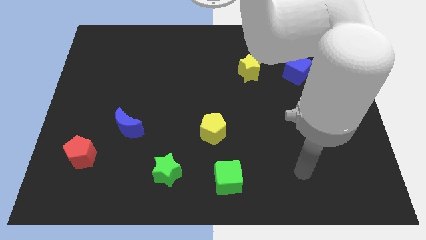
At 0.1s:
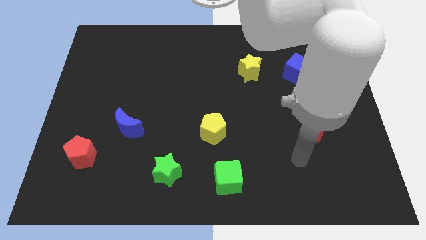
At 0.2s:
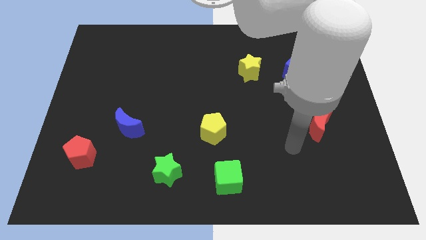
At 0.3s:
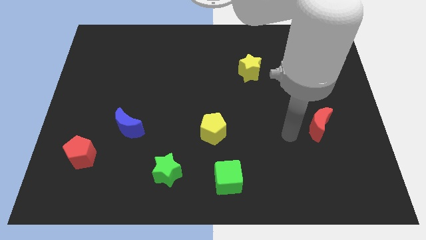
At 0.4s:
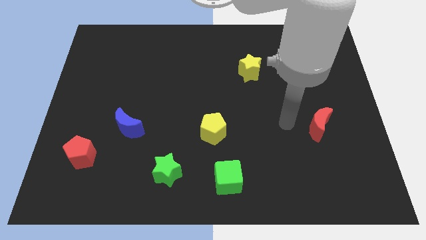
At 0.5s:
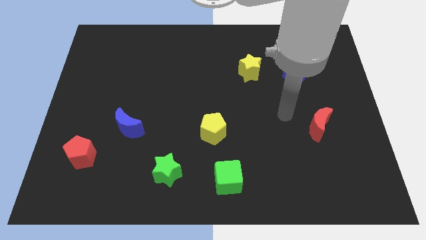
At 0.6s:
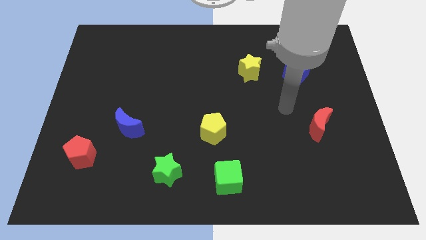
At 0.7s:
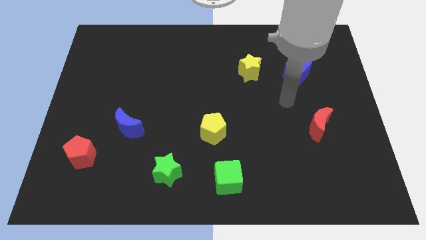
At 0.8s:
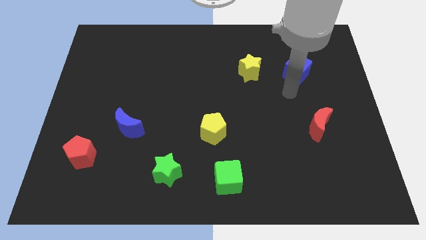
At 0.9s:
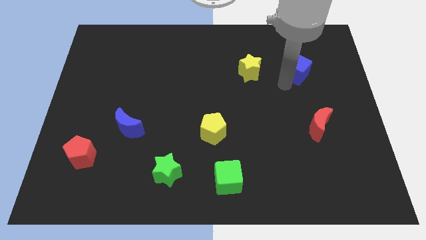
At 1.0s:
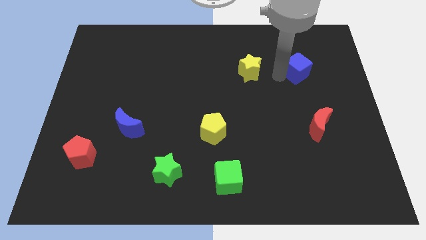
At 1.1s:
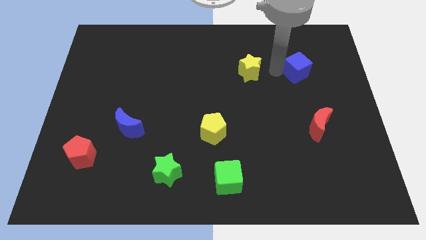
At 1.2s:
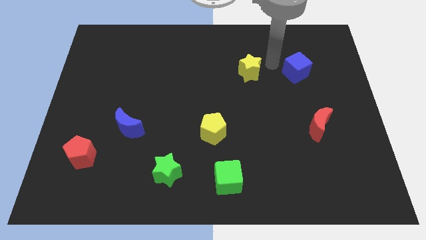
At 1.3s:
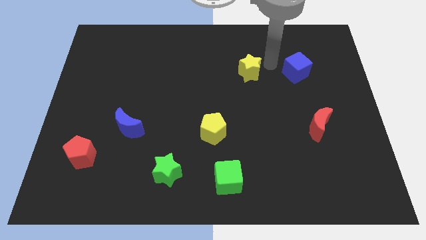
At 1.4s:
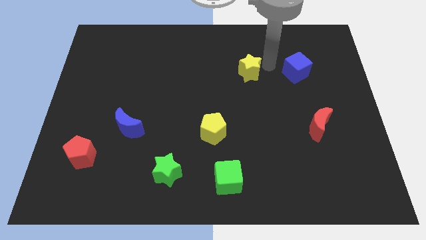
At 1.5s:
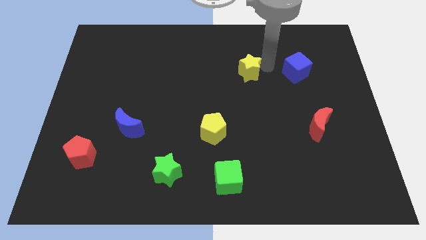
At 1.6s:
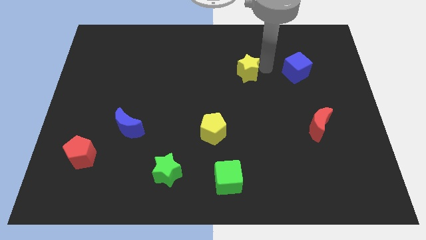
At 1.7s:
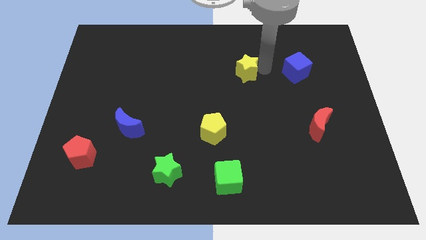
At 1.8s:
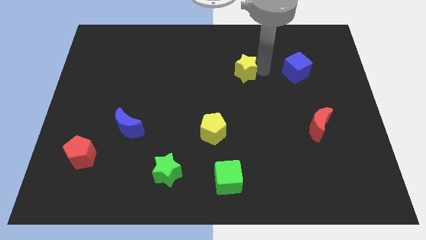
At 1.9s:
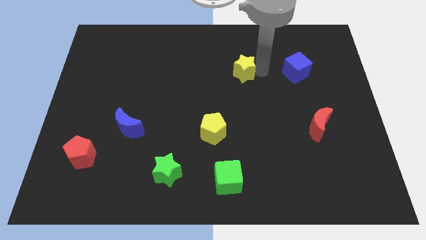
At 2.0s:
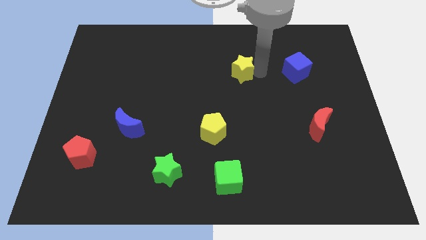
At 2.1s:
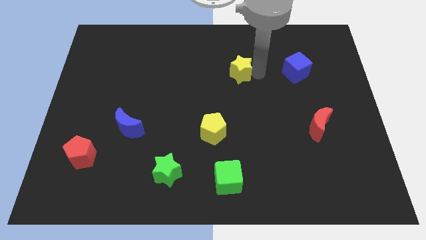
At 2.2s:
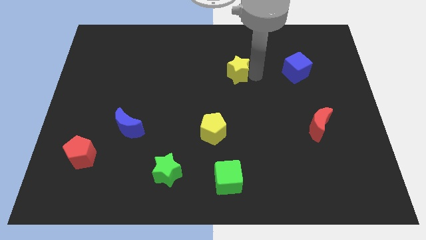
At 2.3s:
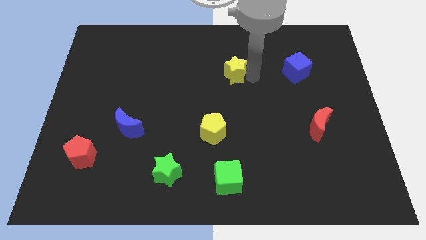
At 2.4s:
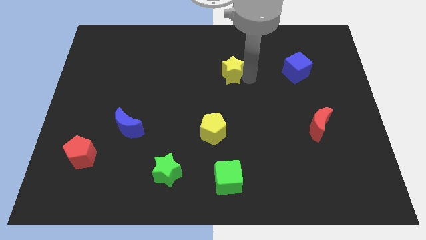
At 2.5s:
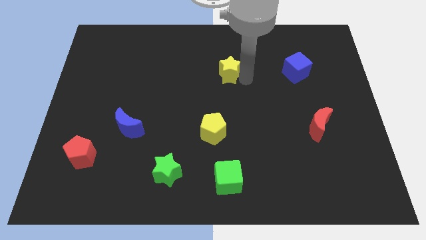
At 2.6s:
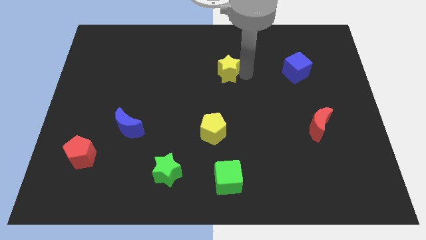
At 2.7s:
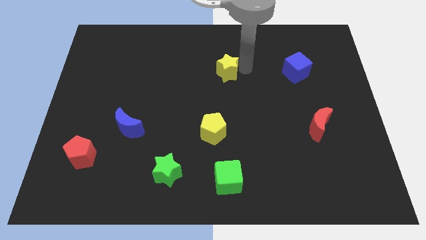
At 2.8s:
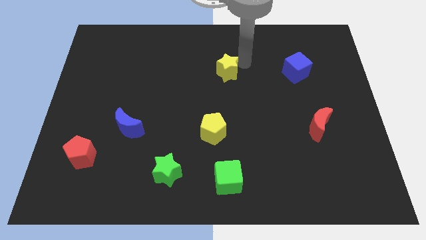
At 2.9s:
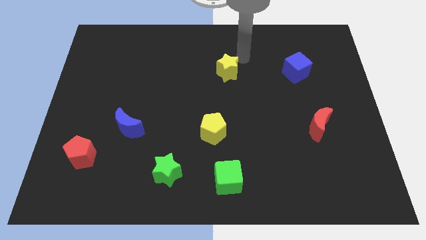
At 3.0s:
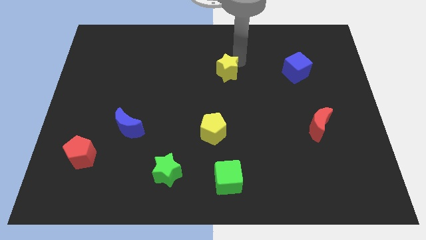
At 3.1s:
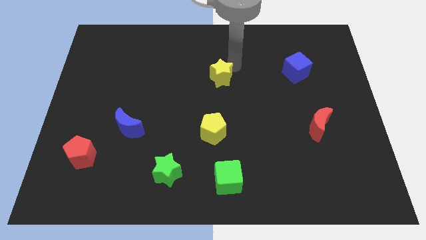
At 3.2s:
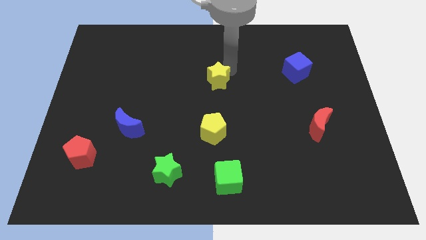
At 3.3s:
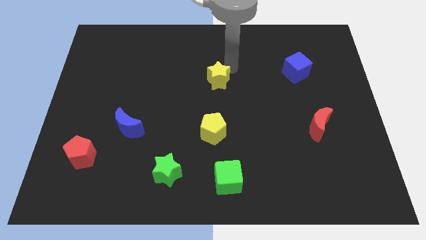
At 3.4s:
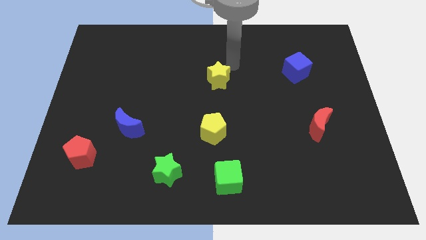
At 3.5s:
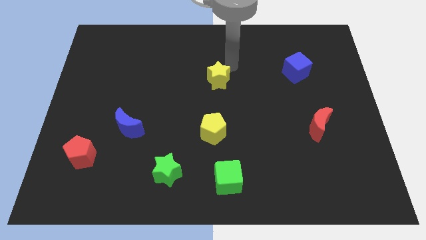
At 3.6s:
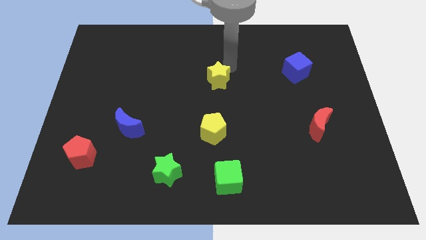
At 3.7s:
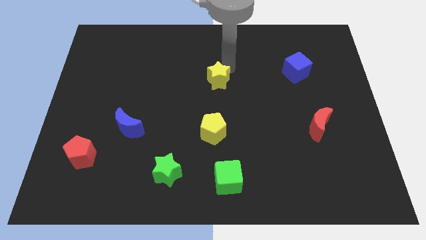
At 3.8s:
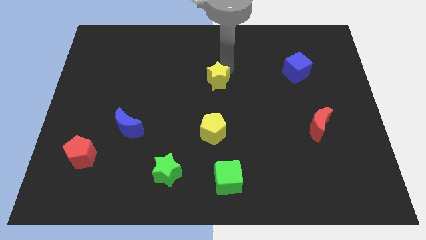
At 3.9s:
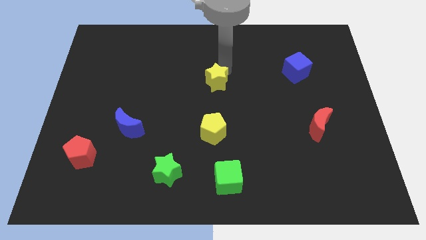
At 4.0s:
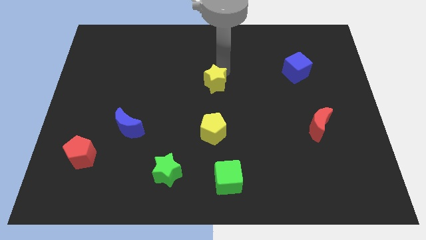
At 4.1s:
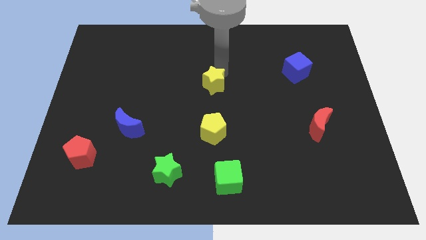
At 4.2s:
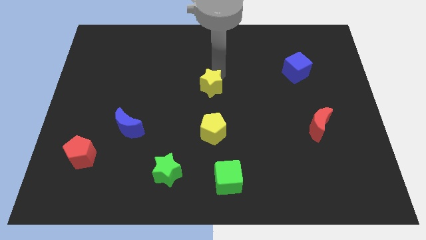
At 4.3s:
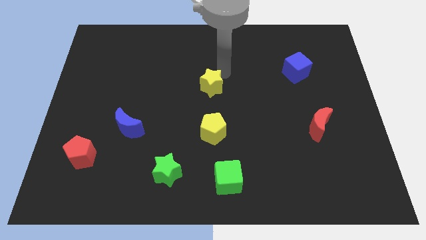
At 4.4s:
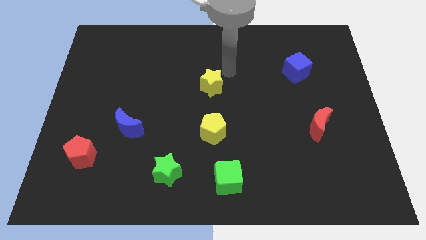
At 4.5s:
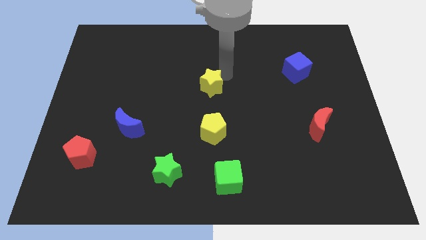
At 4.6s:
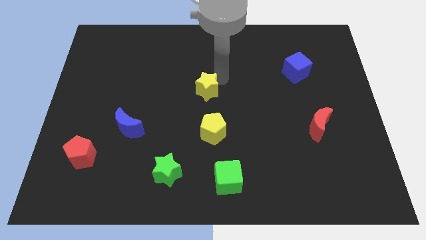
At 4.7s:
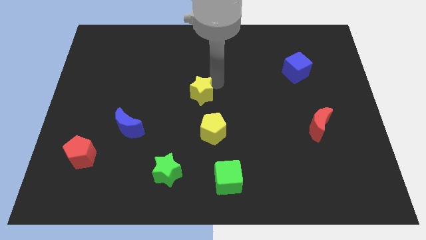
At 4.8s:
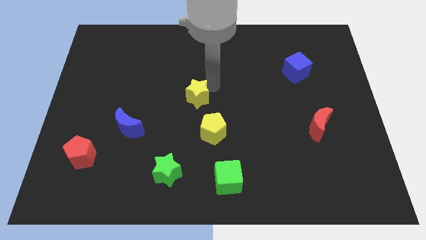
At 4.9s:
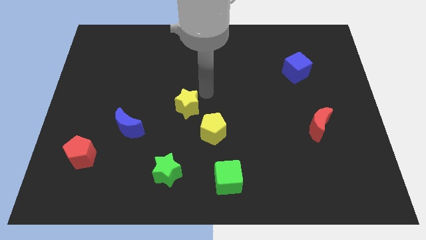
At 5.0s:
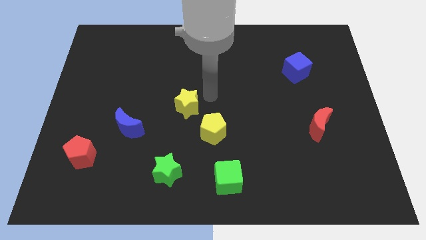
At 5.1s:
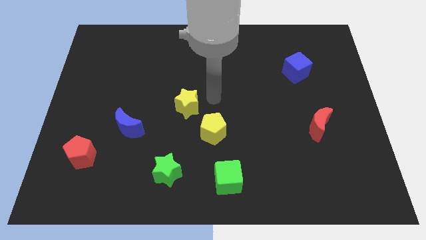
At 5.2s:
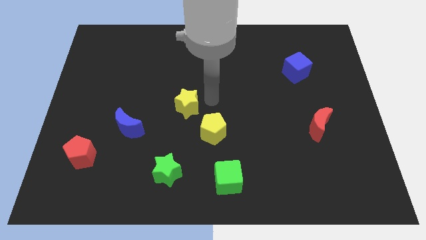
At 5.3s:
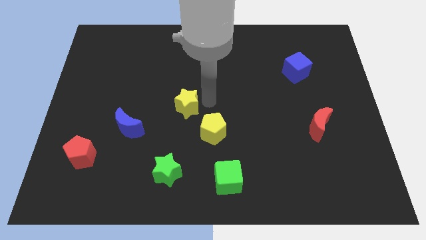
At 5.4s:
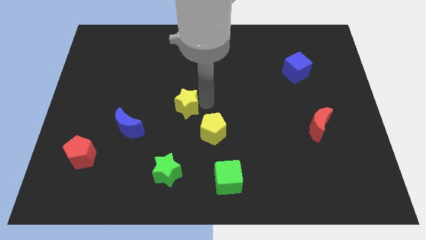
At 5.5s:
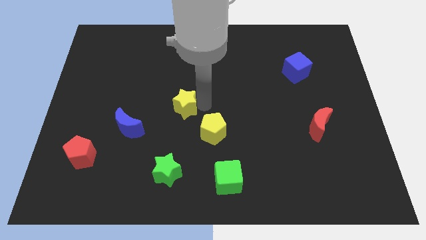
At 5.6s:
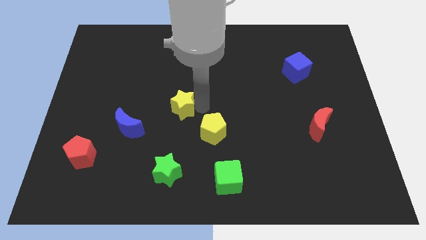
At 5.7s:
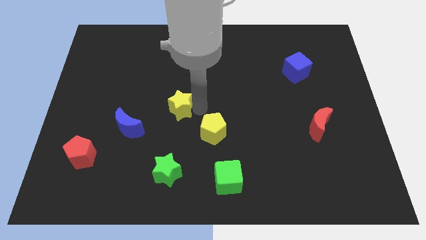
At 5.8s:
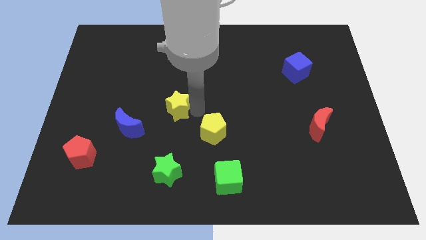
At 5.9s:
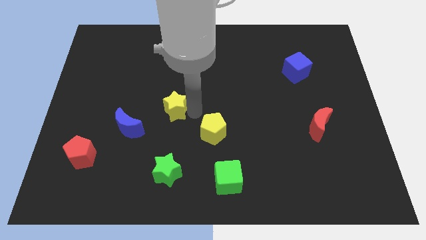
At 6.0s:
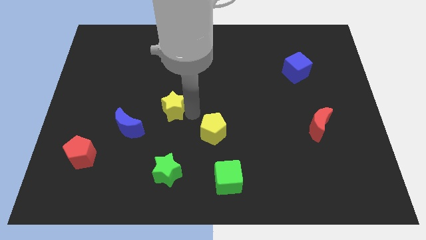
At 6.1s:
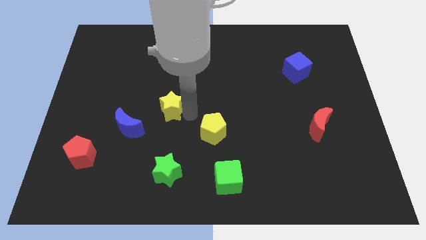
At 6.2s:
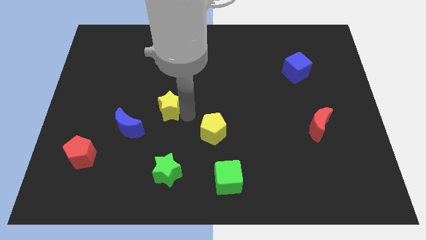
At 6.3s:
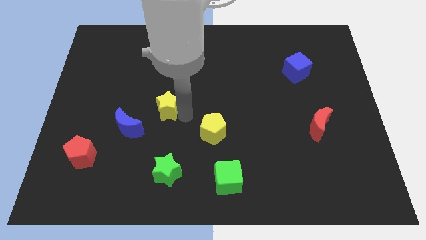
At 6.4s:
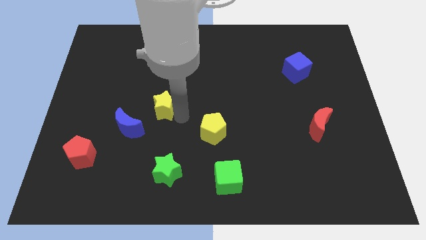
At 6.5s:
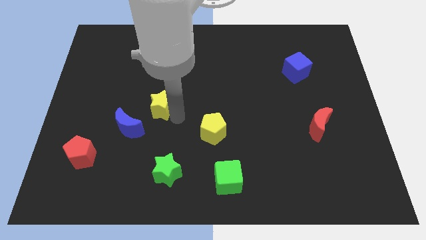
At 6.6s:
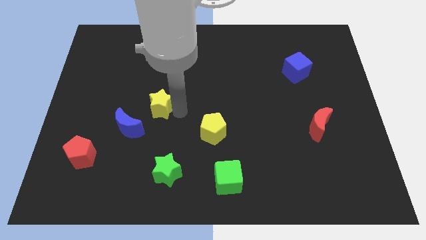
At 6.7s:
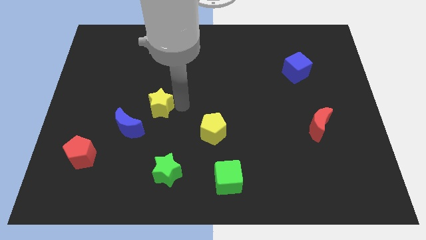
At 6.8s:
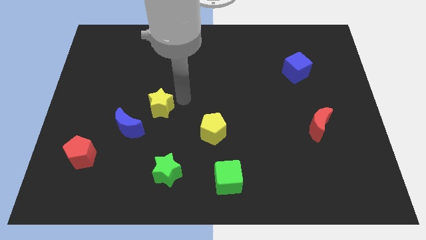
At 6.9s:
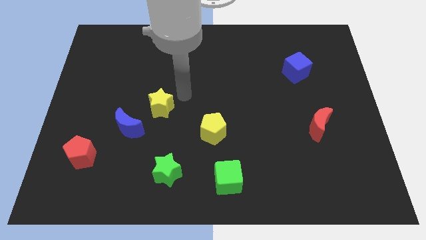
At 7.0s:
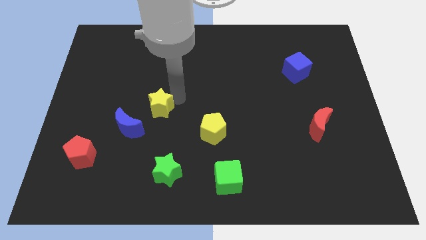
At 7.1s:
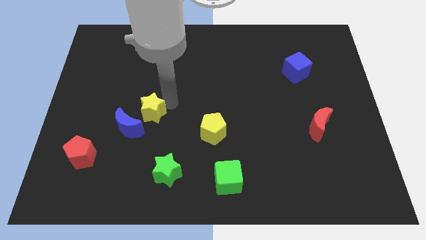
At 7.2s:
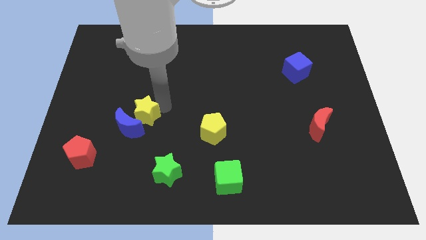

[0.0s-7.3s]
put the yellow star close to the blue moon

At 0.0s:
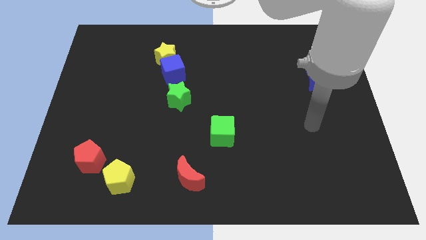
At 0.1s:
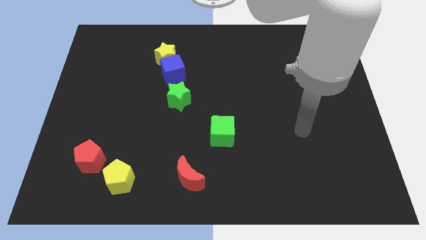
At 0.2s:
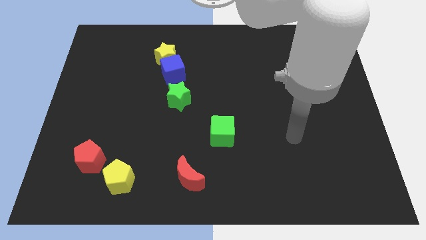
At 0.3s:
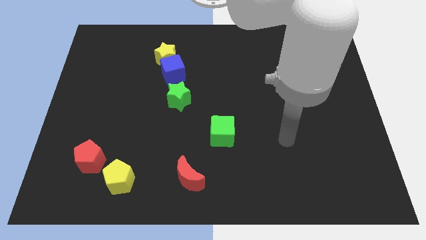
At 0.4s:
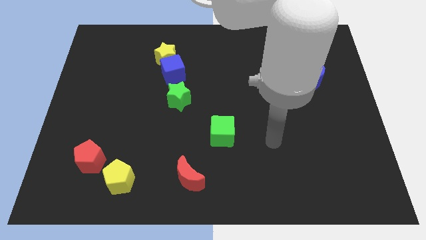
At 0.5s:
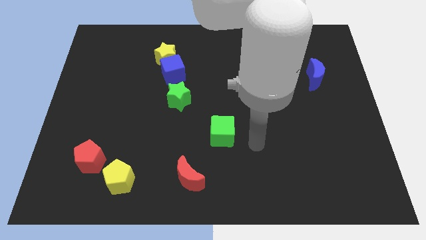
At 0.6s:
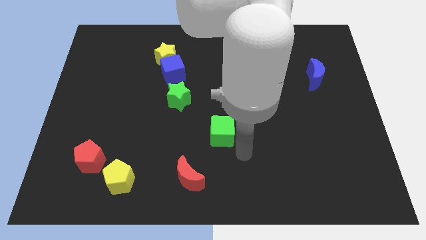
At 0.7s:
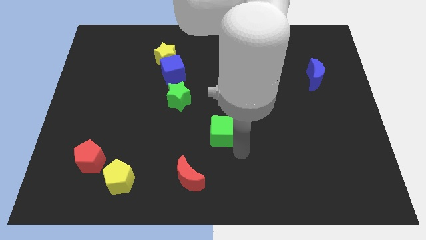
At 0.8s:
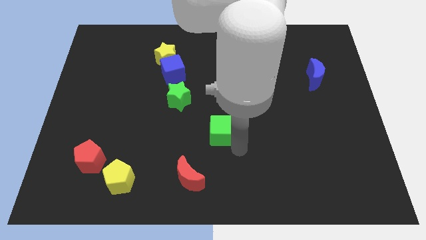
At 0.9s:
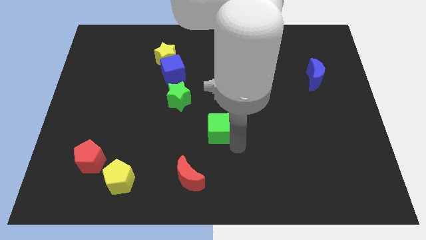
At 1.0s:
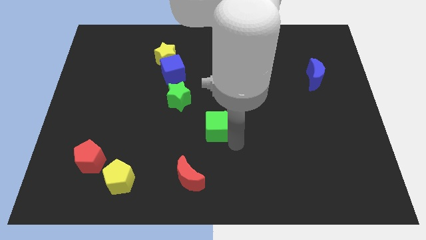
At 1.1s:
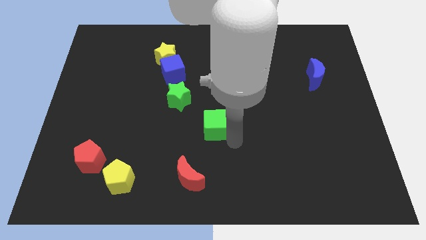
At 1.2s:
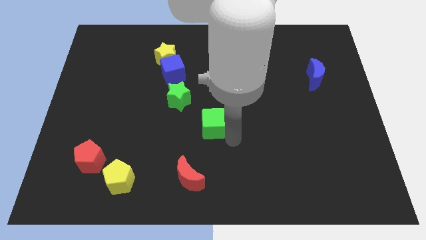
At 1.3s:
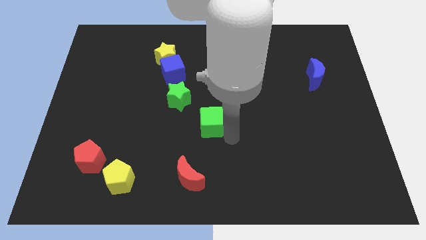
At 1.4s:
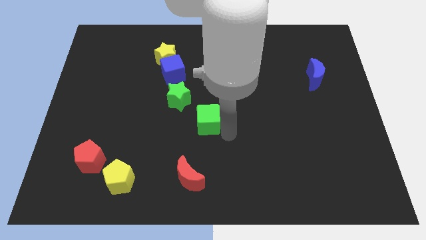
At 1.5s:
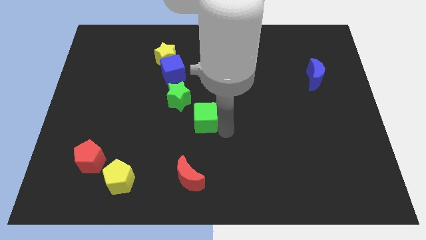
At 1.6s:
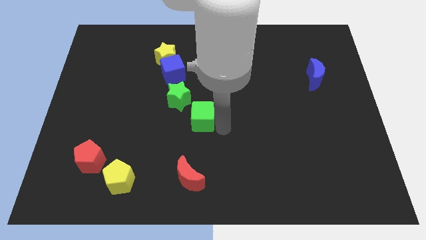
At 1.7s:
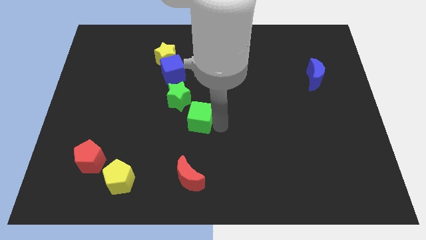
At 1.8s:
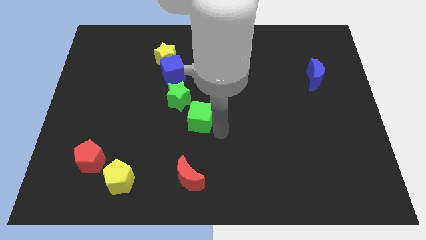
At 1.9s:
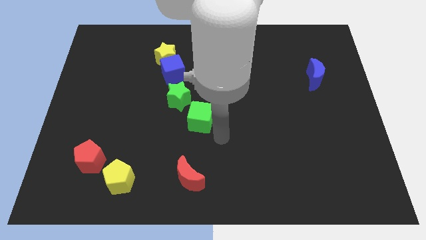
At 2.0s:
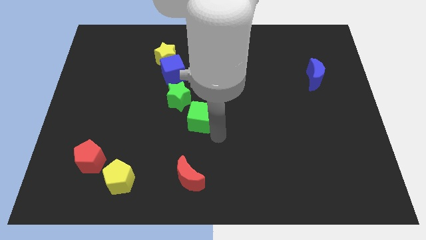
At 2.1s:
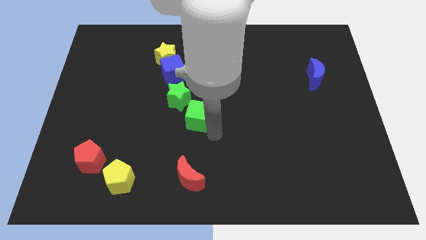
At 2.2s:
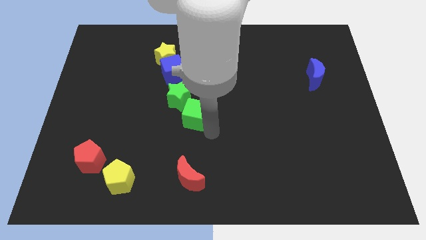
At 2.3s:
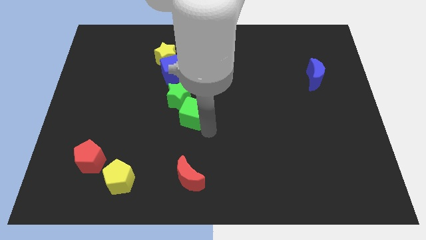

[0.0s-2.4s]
slide the green cube to the green star
